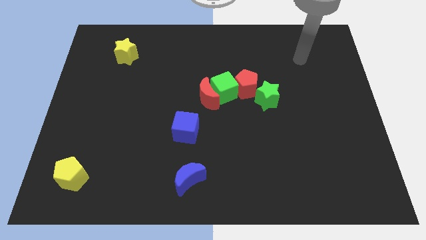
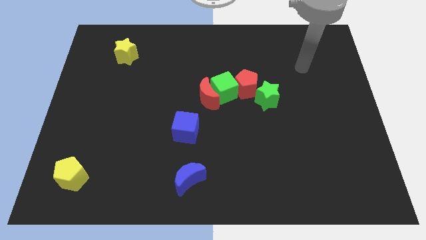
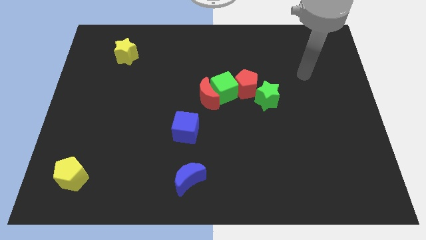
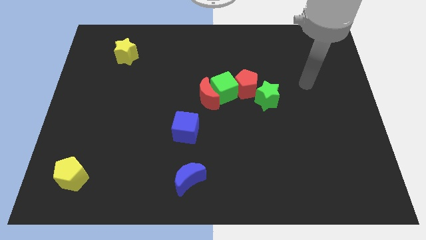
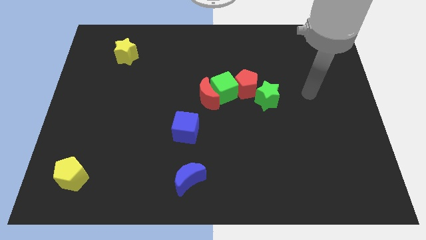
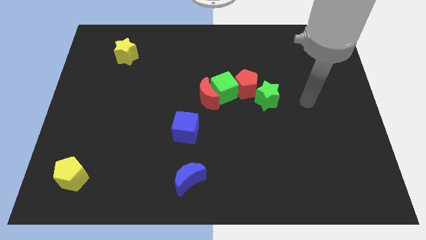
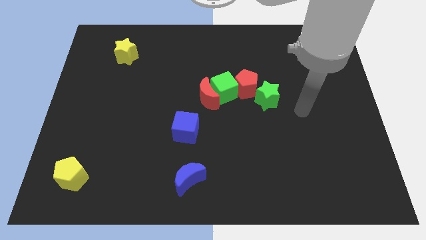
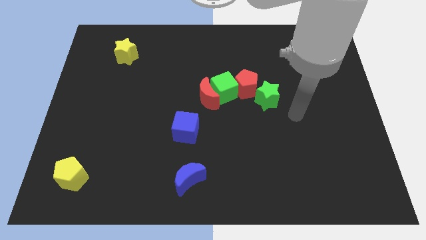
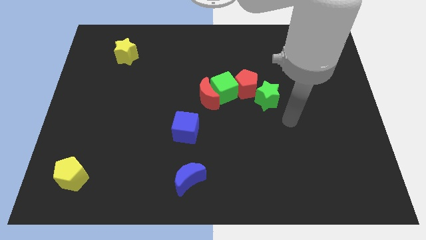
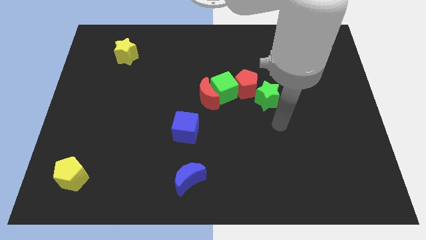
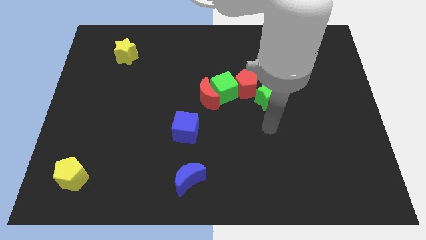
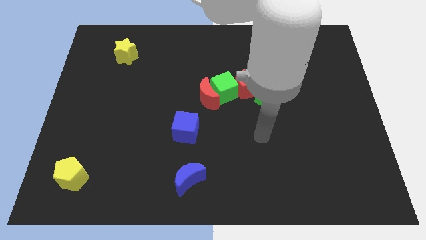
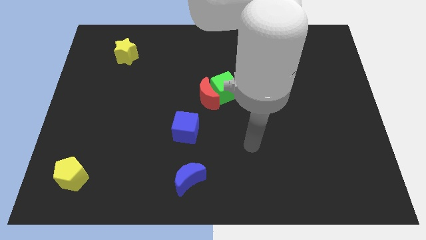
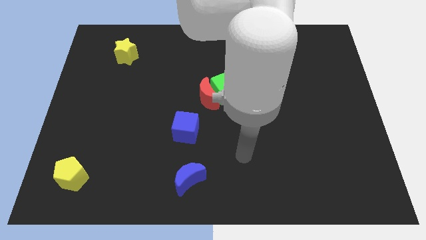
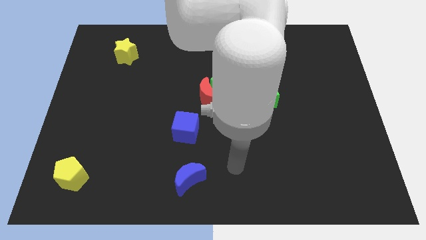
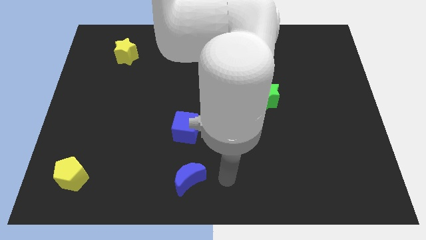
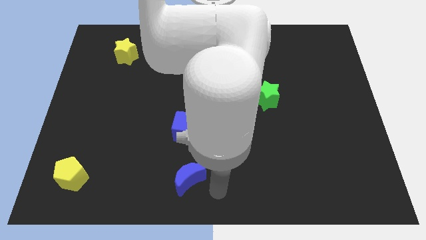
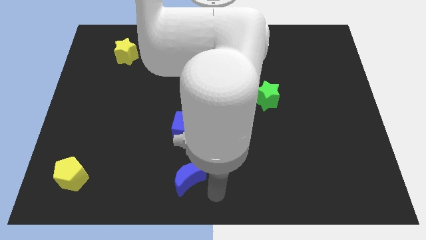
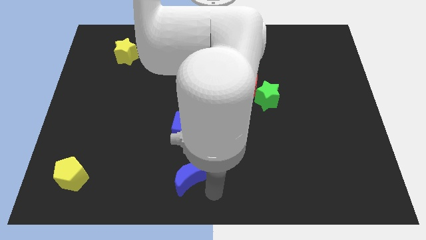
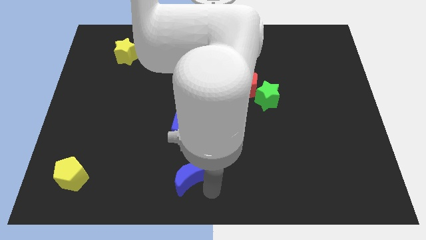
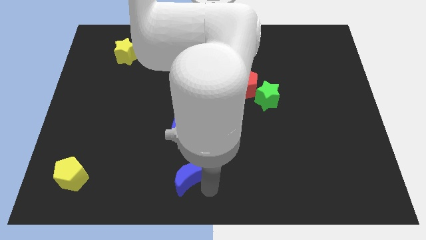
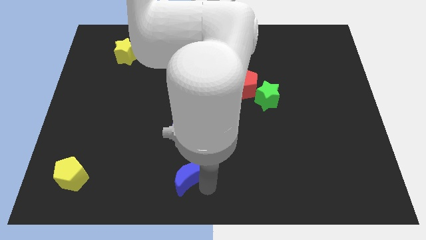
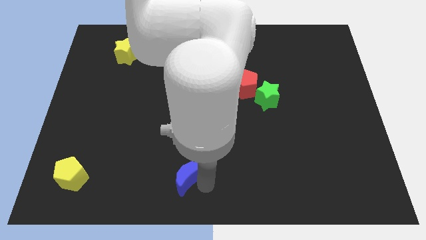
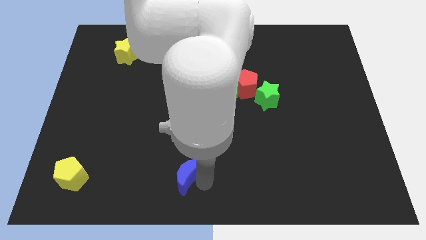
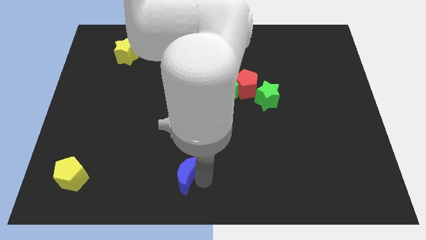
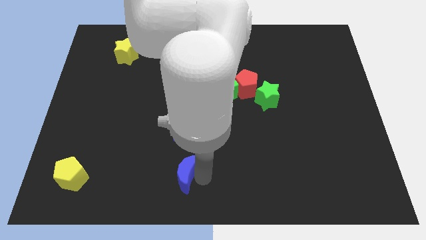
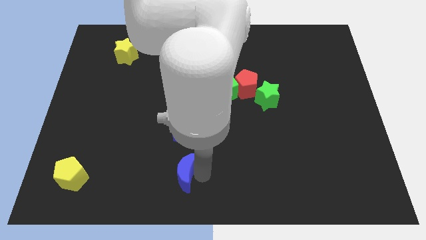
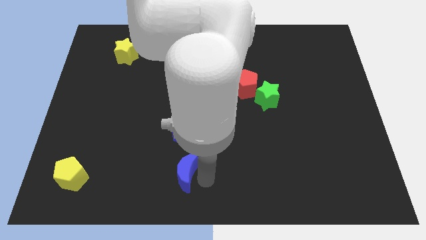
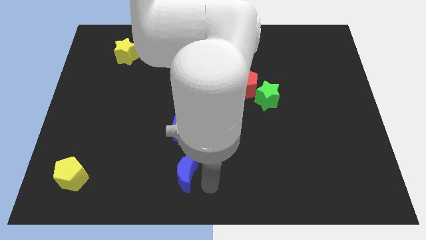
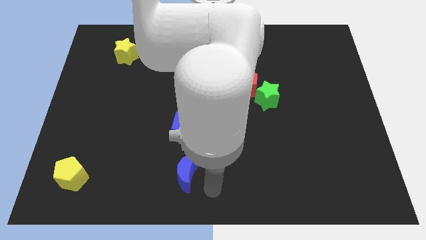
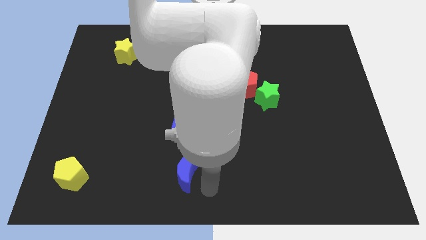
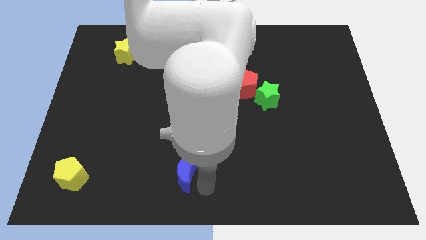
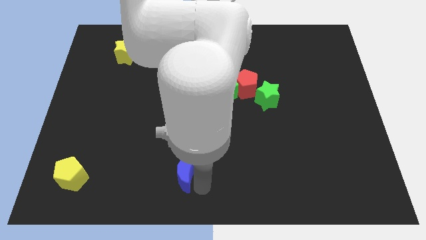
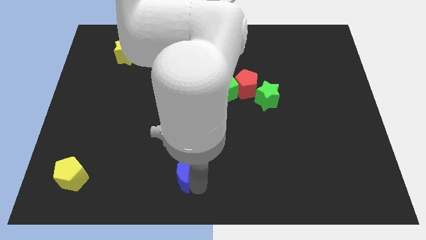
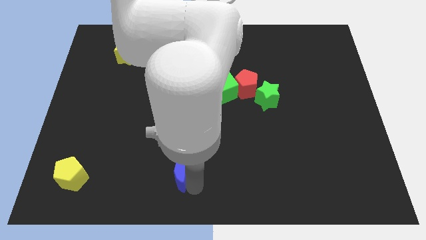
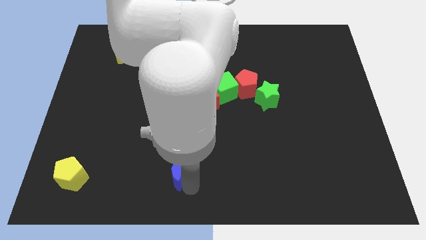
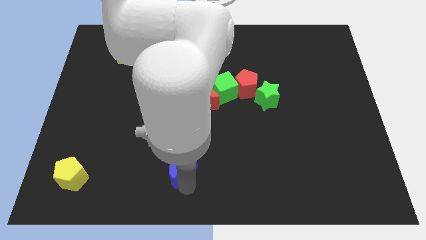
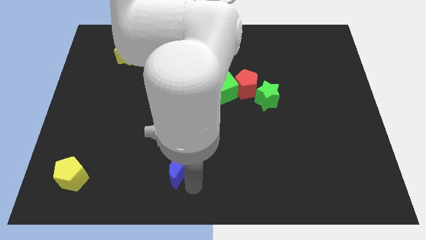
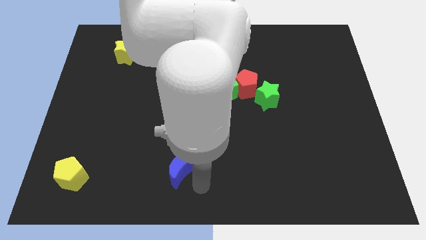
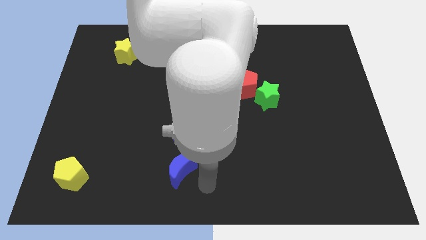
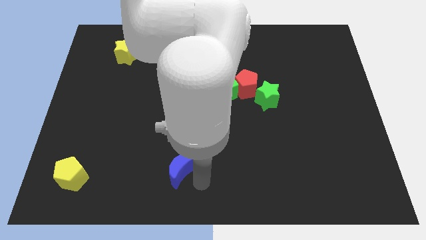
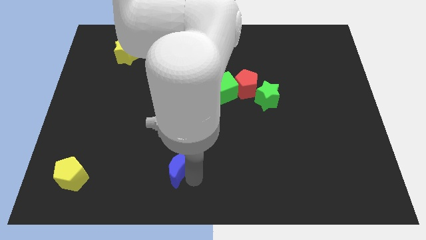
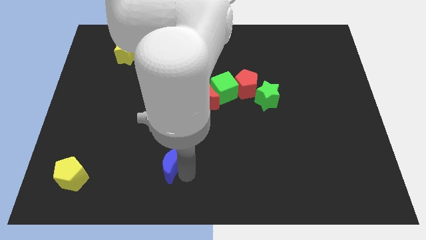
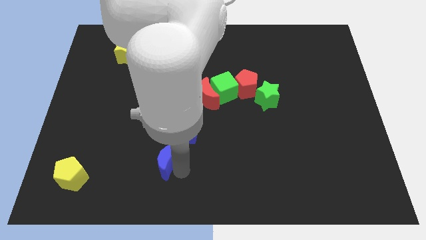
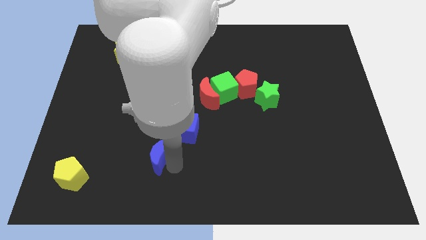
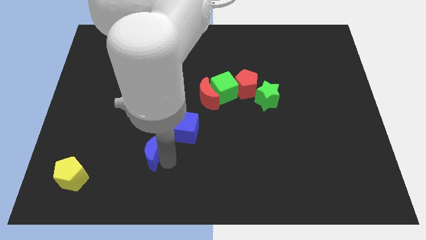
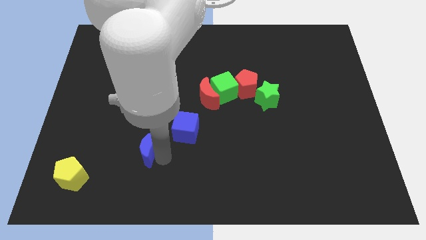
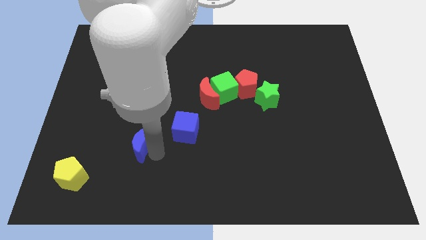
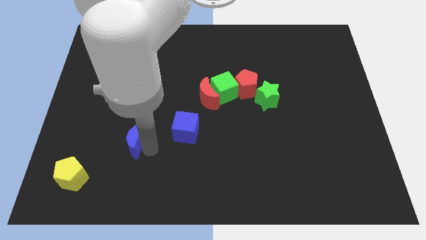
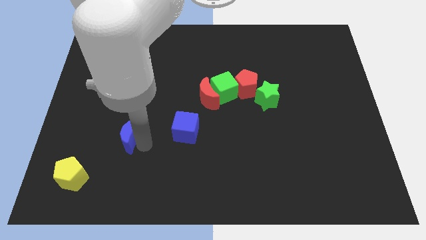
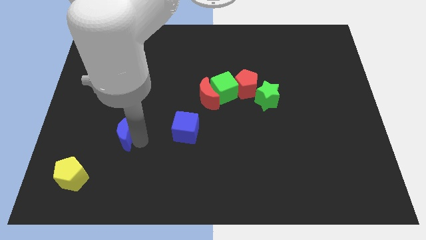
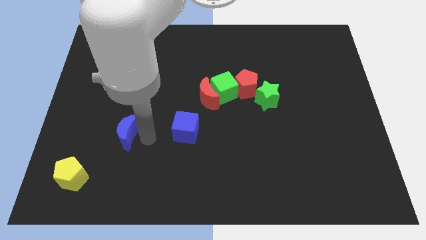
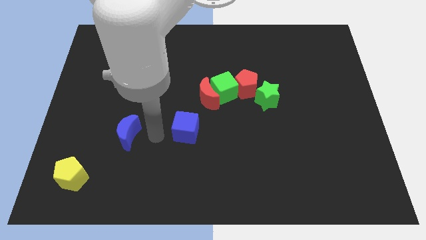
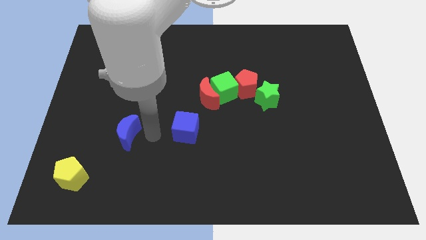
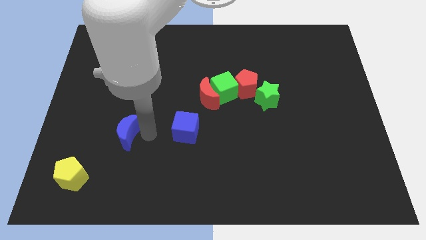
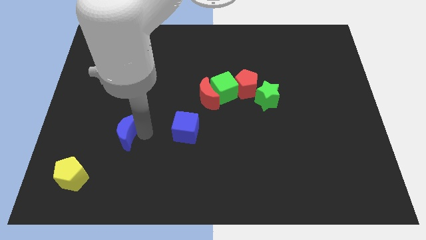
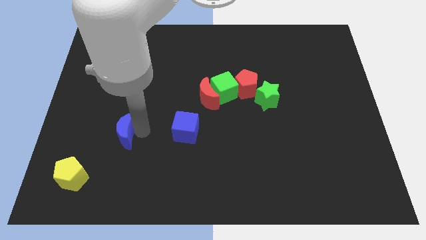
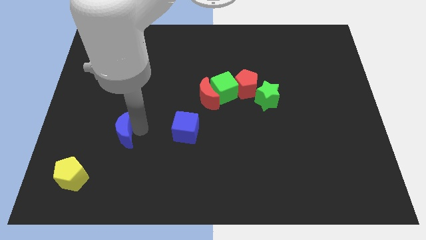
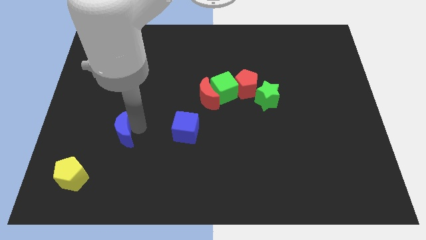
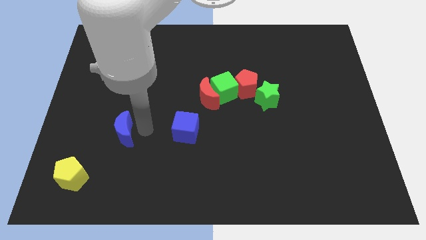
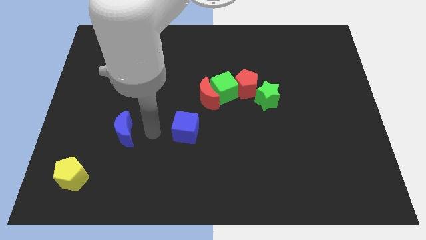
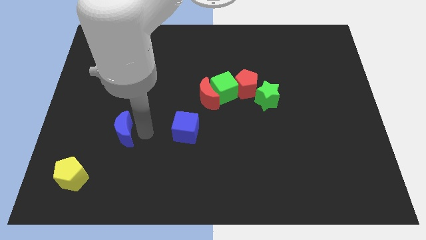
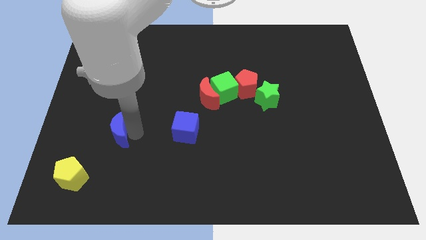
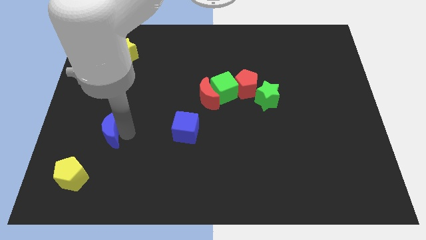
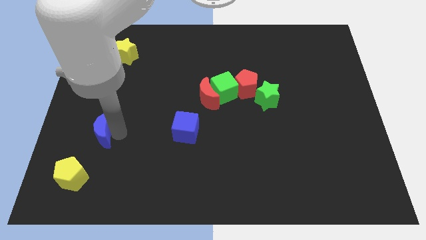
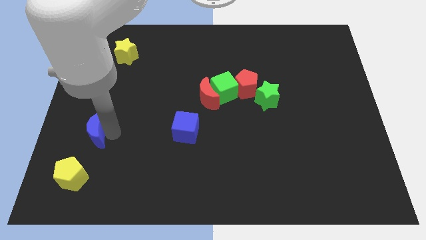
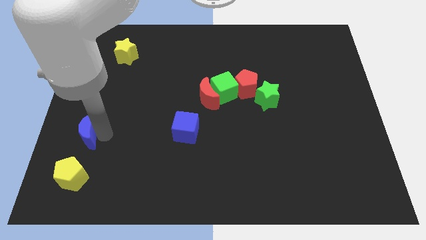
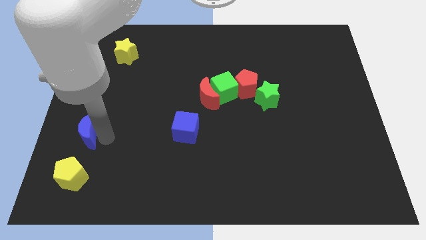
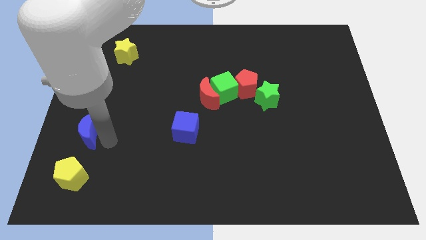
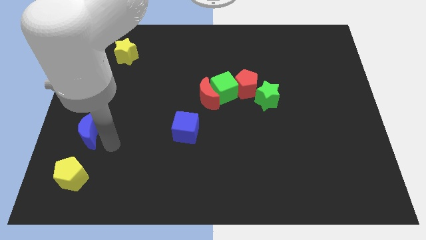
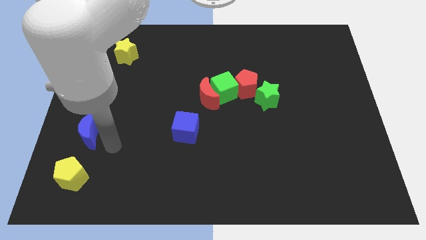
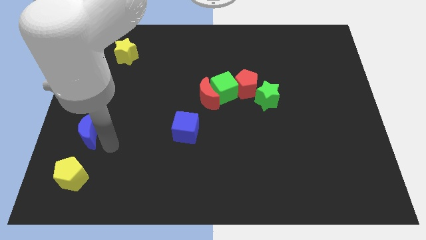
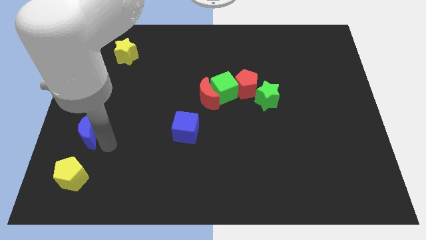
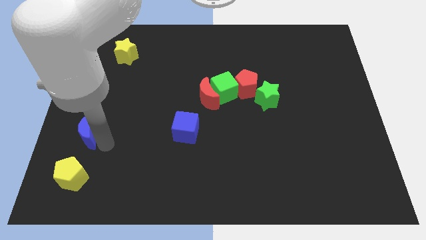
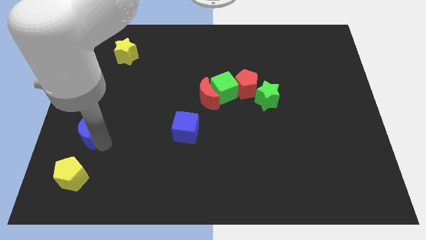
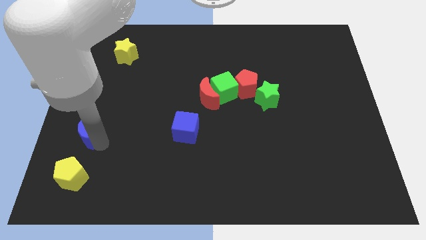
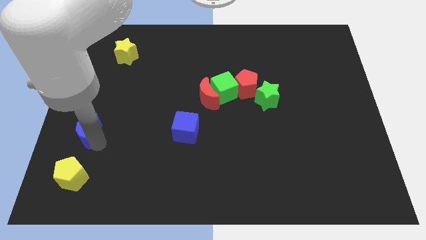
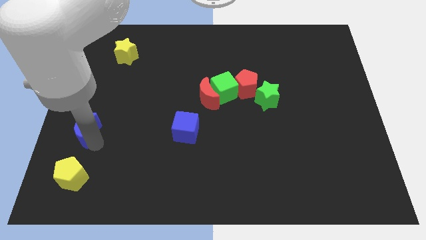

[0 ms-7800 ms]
move the blue moon to the left side
